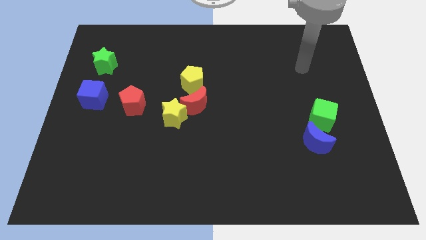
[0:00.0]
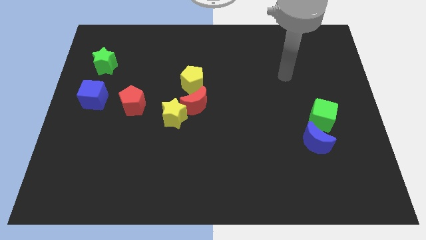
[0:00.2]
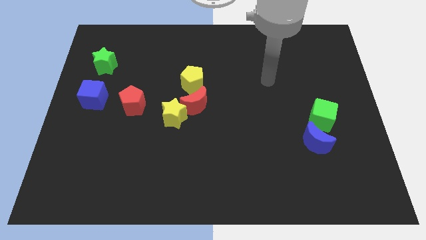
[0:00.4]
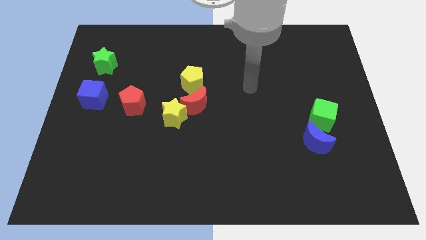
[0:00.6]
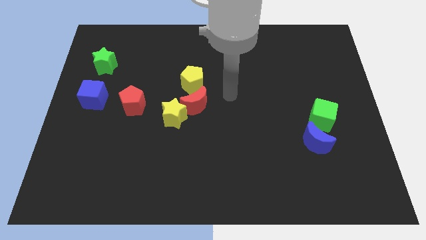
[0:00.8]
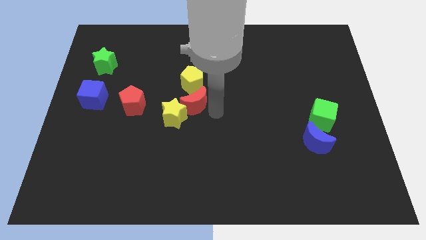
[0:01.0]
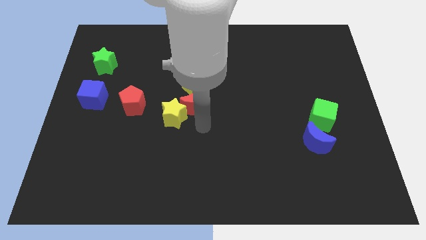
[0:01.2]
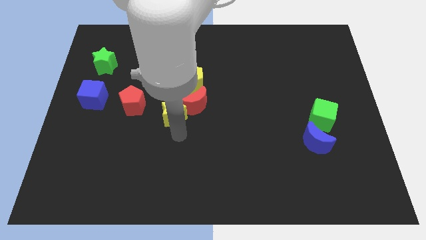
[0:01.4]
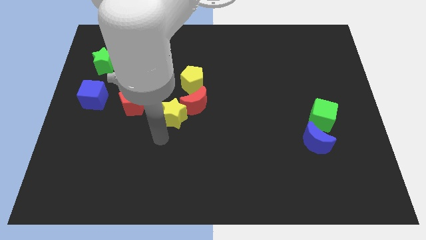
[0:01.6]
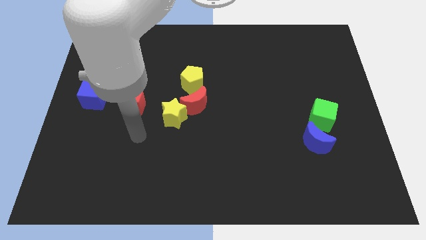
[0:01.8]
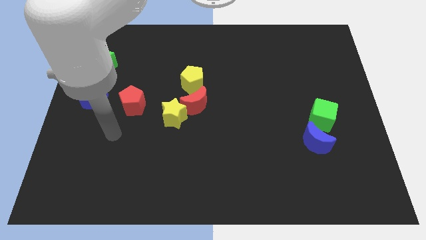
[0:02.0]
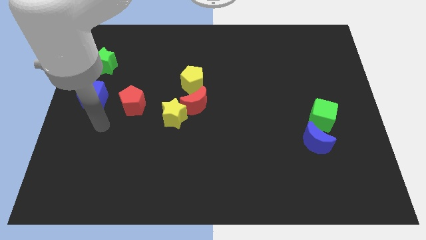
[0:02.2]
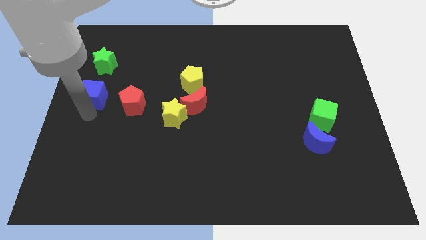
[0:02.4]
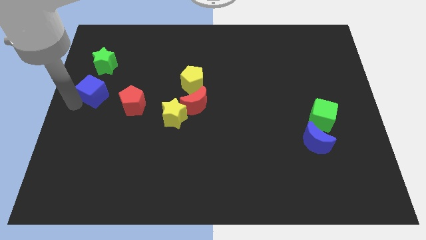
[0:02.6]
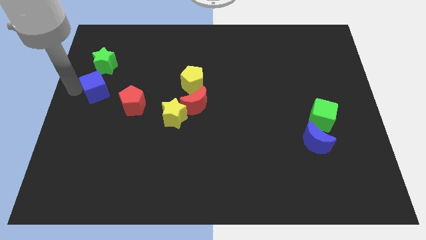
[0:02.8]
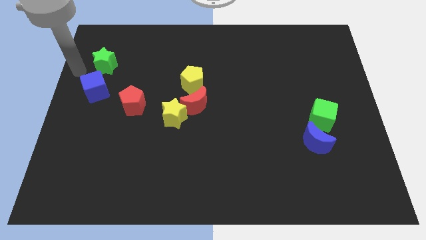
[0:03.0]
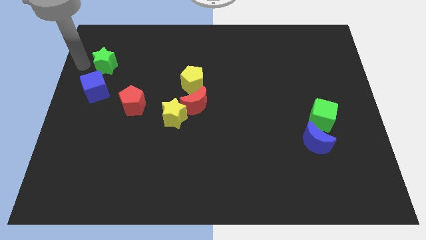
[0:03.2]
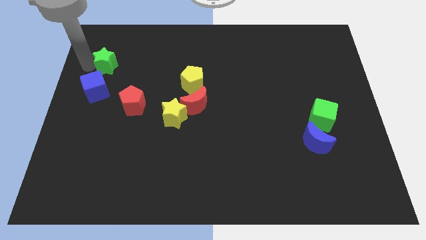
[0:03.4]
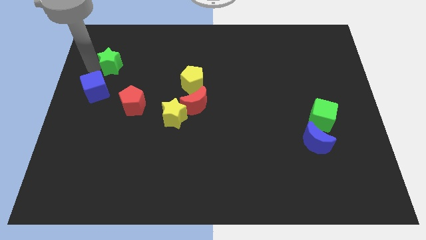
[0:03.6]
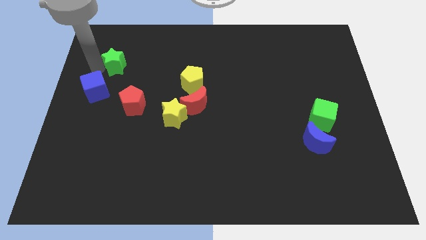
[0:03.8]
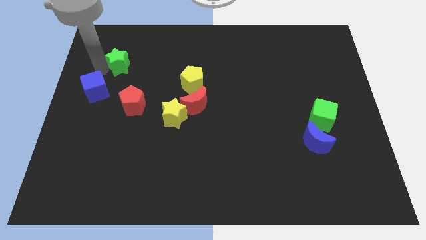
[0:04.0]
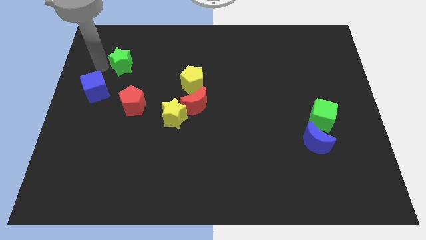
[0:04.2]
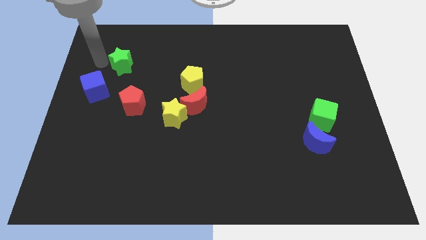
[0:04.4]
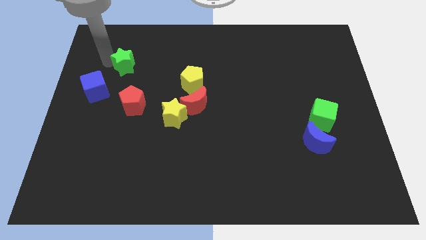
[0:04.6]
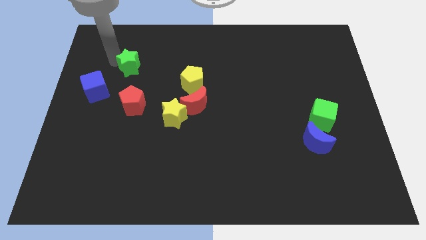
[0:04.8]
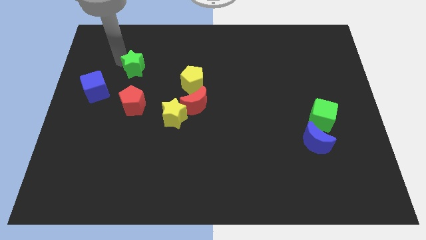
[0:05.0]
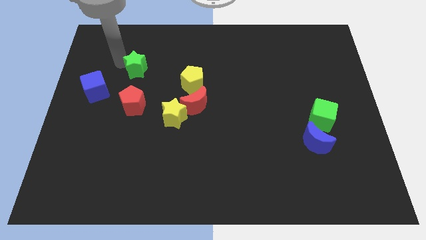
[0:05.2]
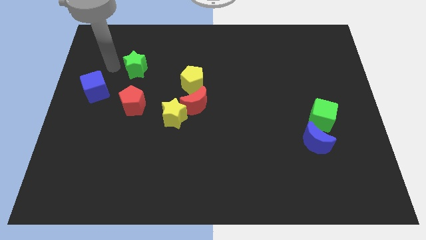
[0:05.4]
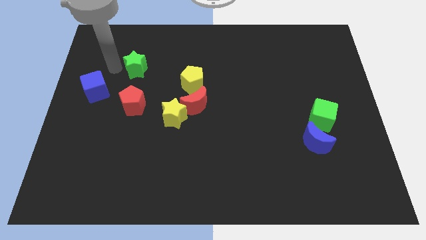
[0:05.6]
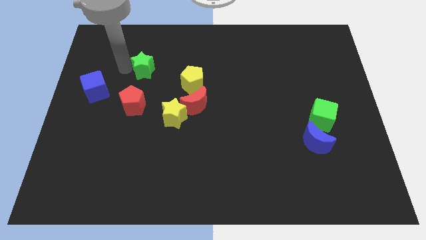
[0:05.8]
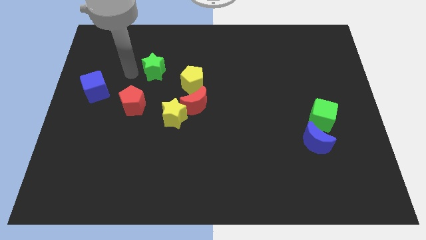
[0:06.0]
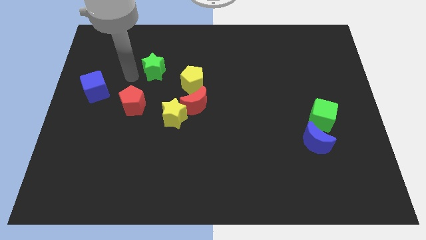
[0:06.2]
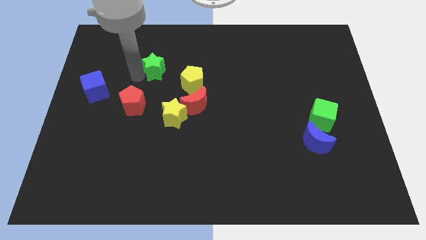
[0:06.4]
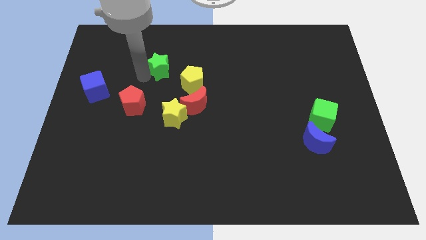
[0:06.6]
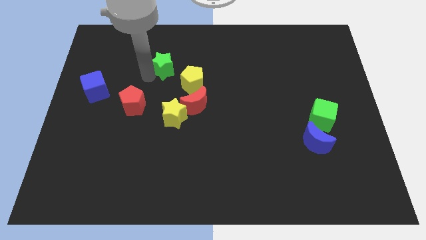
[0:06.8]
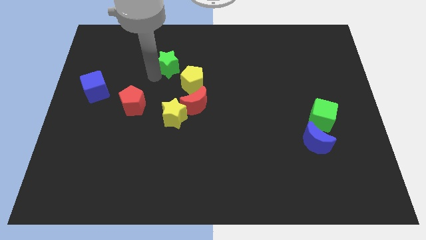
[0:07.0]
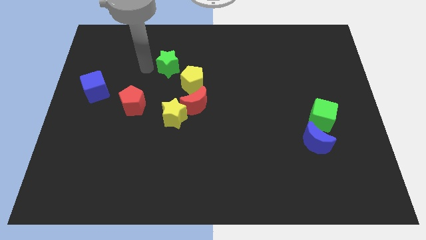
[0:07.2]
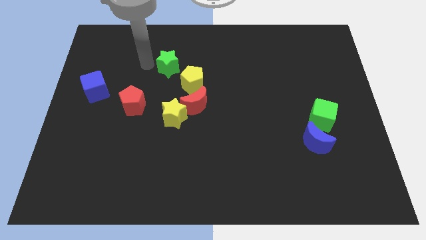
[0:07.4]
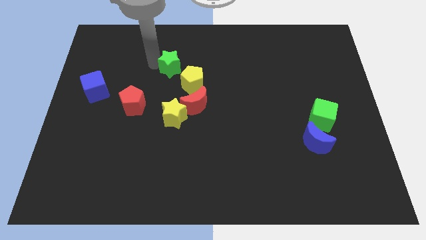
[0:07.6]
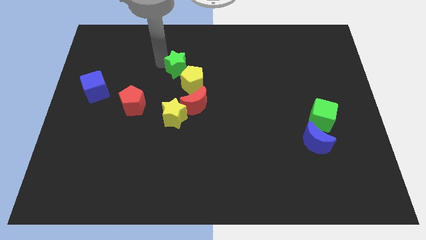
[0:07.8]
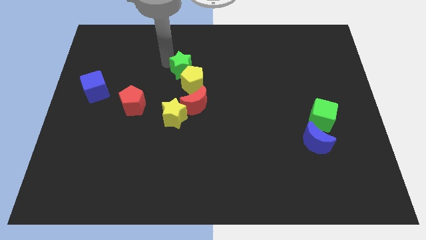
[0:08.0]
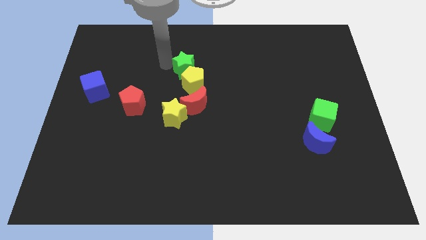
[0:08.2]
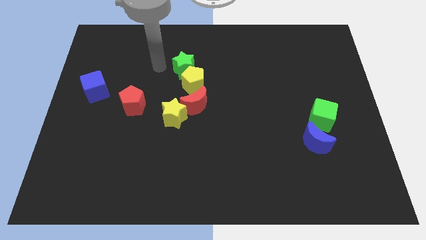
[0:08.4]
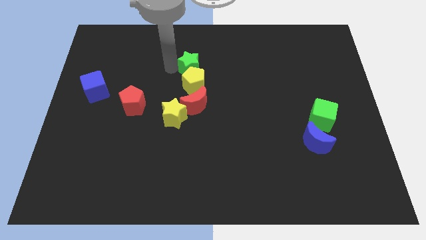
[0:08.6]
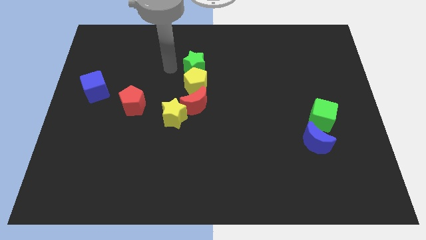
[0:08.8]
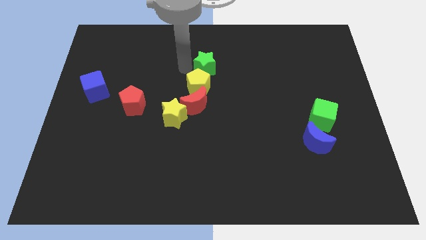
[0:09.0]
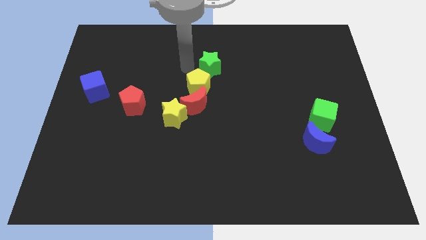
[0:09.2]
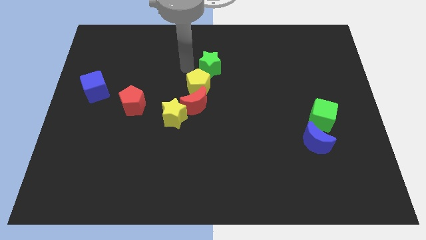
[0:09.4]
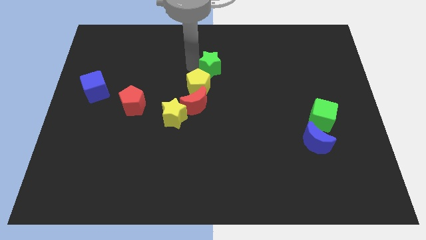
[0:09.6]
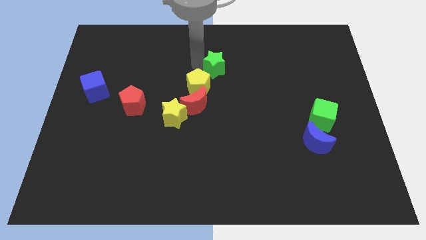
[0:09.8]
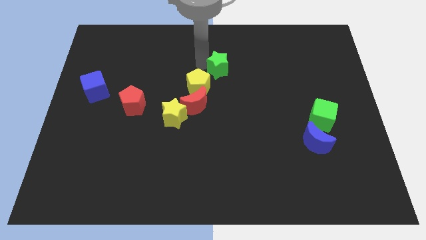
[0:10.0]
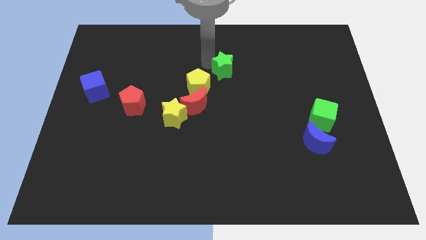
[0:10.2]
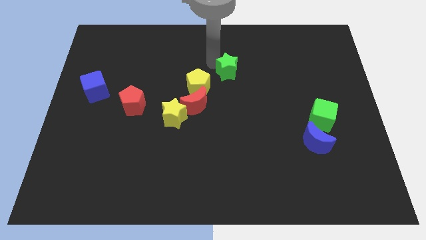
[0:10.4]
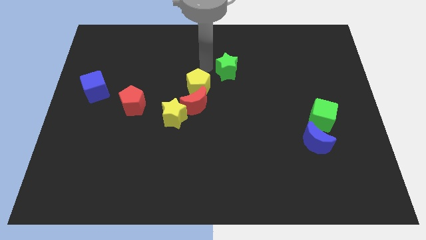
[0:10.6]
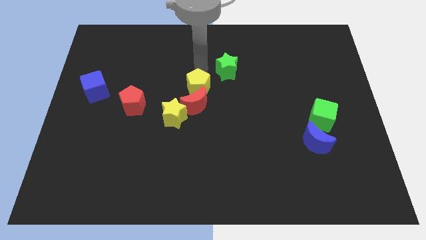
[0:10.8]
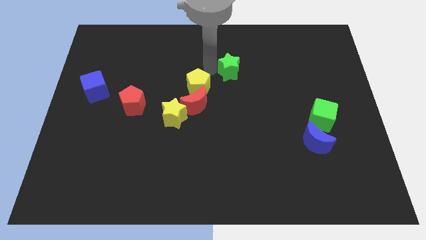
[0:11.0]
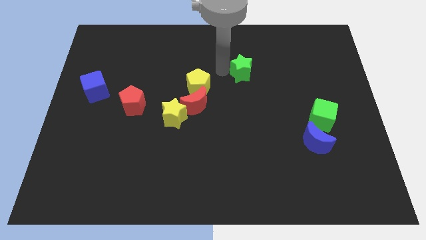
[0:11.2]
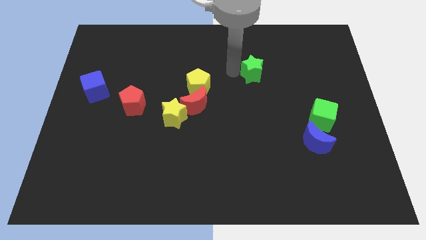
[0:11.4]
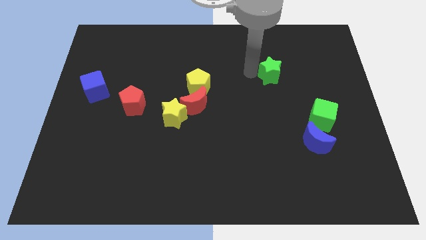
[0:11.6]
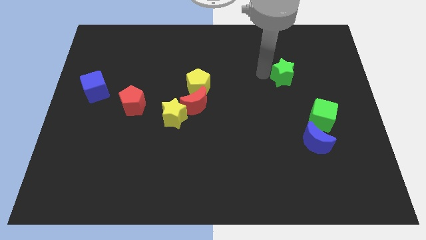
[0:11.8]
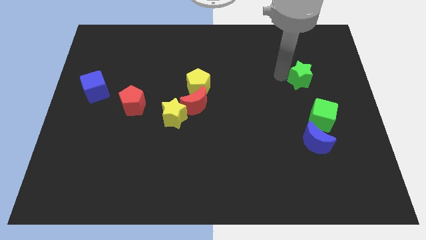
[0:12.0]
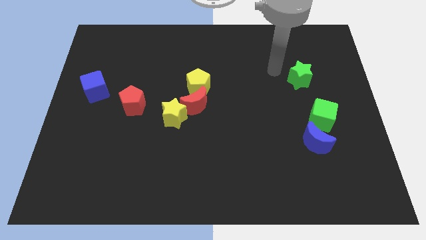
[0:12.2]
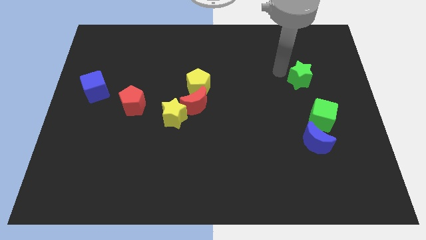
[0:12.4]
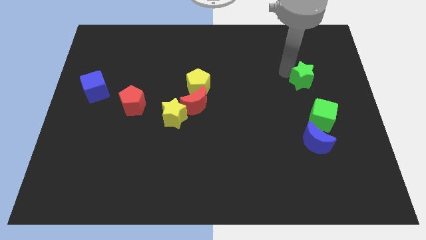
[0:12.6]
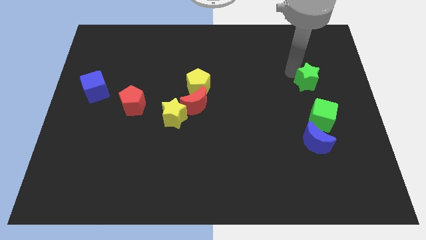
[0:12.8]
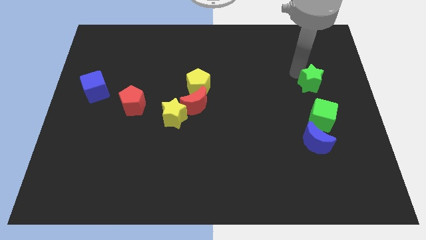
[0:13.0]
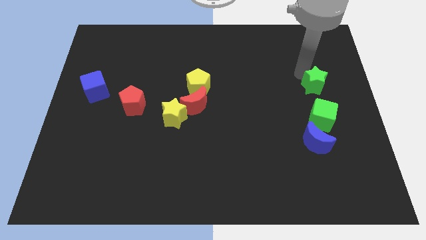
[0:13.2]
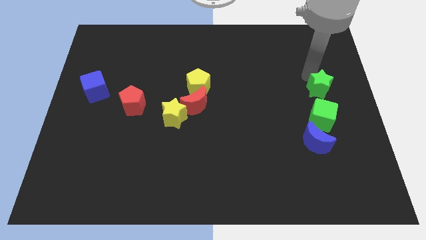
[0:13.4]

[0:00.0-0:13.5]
put the green star to the center right
